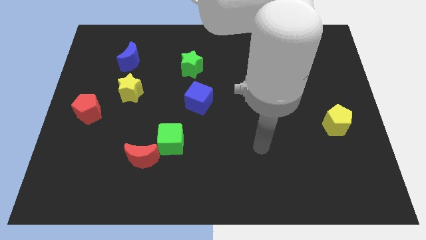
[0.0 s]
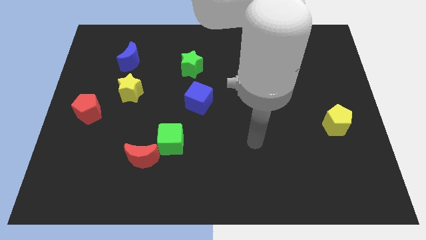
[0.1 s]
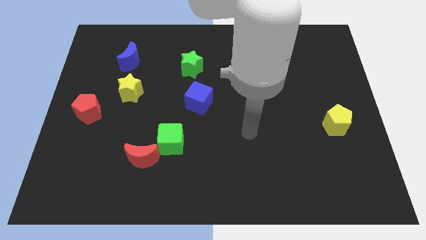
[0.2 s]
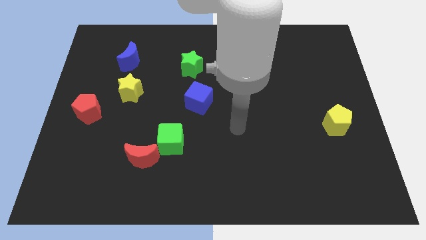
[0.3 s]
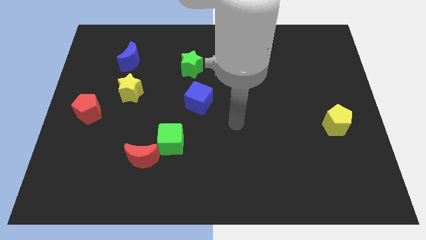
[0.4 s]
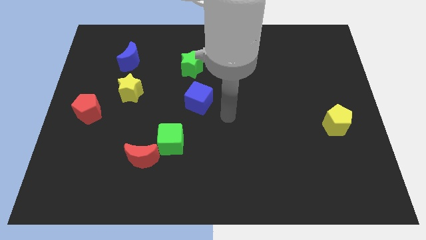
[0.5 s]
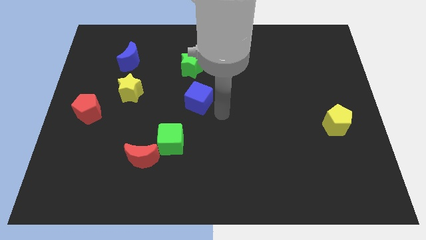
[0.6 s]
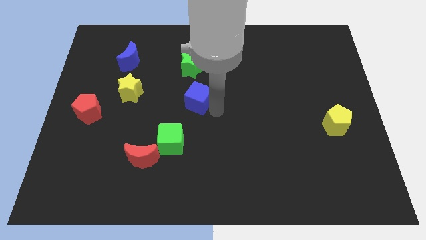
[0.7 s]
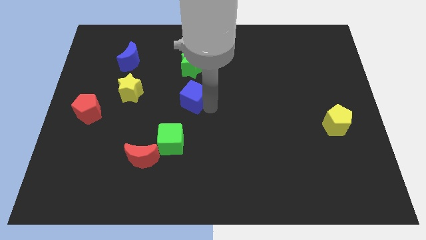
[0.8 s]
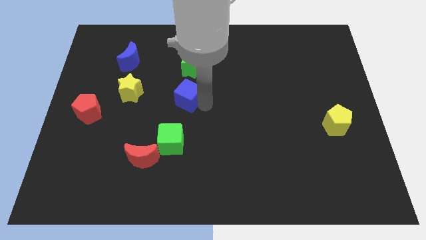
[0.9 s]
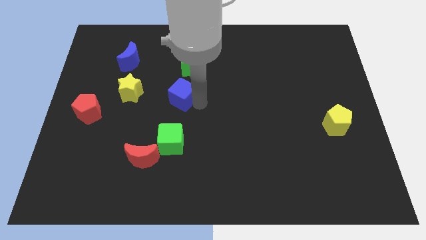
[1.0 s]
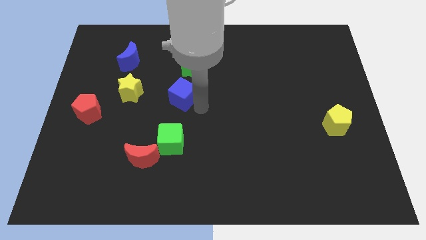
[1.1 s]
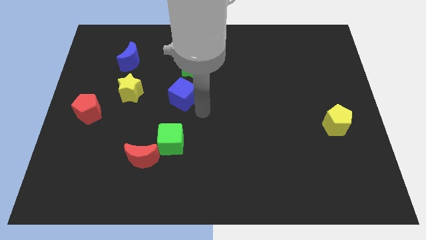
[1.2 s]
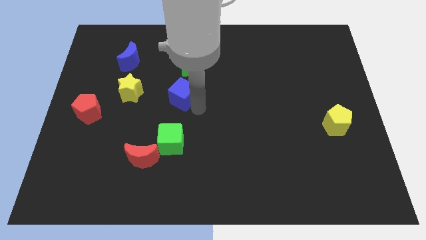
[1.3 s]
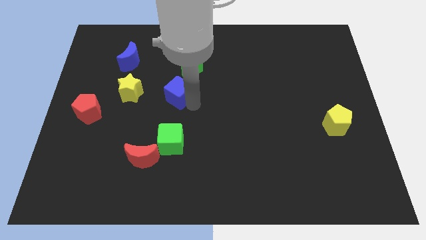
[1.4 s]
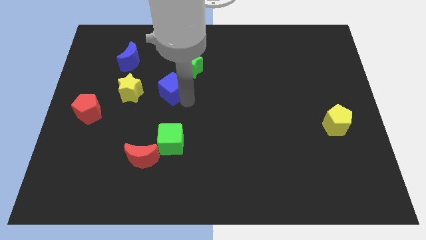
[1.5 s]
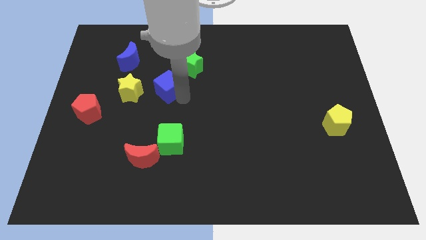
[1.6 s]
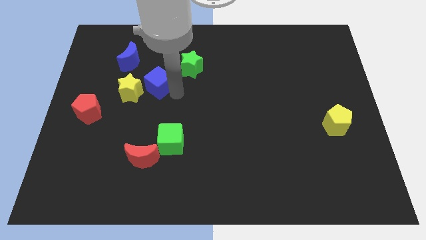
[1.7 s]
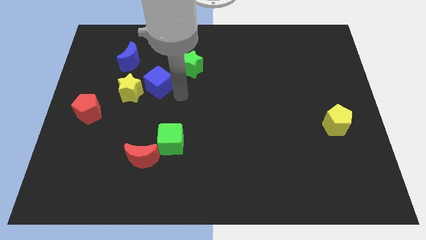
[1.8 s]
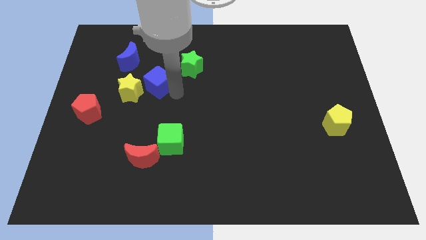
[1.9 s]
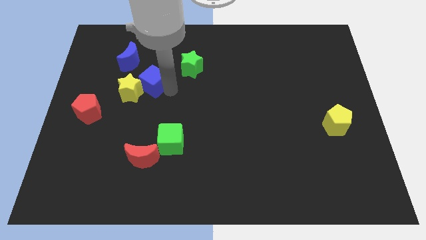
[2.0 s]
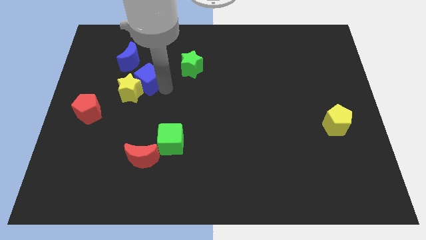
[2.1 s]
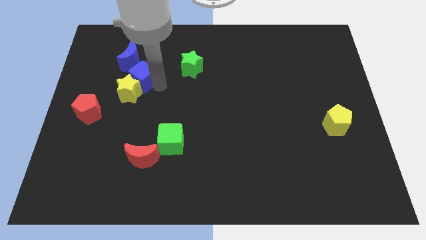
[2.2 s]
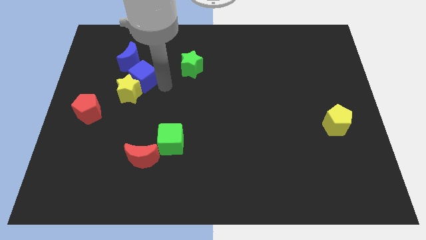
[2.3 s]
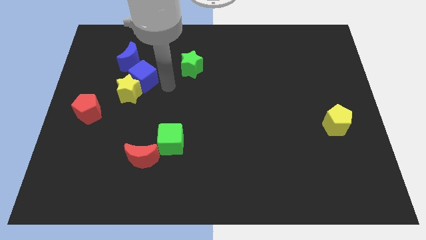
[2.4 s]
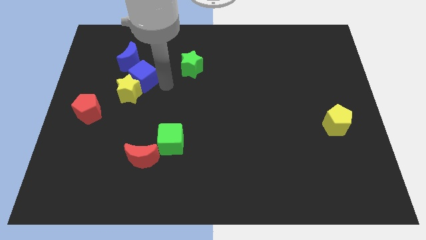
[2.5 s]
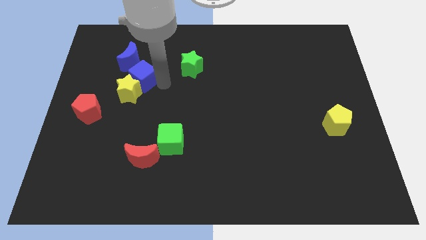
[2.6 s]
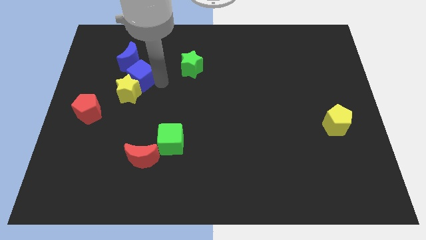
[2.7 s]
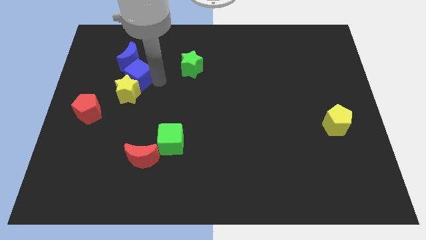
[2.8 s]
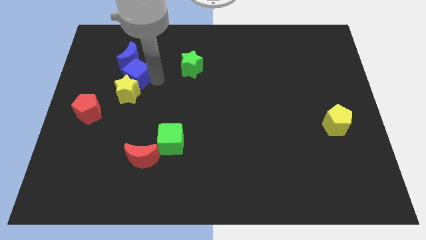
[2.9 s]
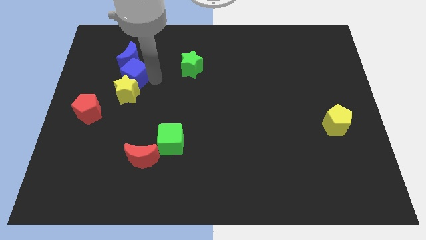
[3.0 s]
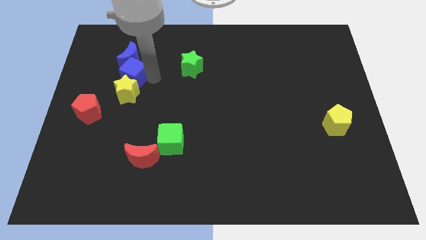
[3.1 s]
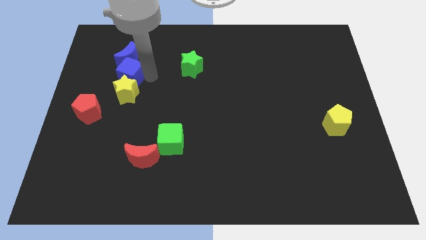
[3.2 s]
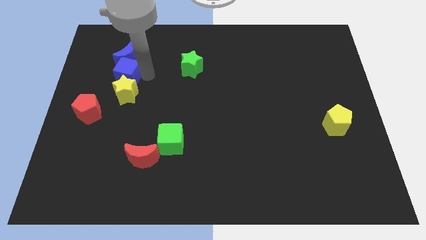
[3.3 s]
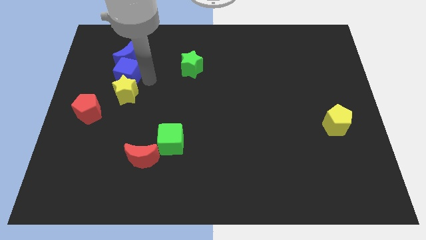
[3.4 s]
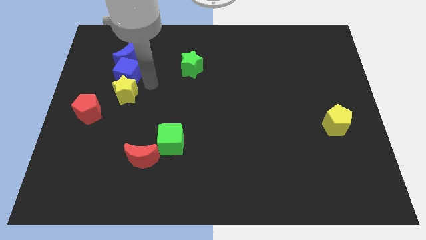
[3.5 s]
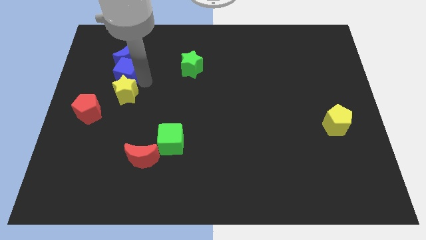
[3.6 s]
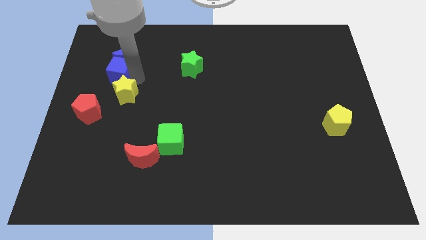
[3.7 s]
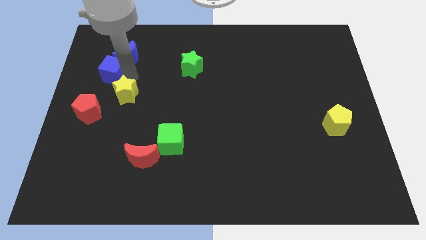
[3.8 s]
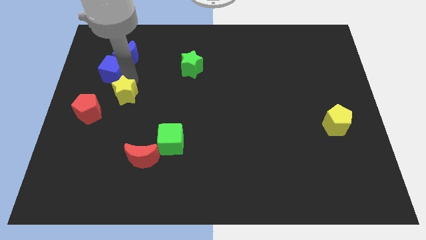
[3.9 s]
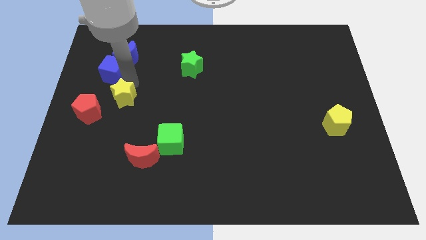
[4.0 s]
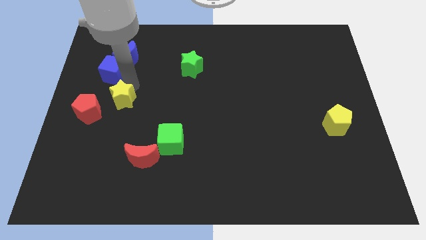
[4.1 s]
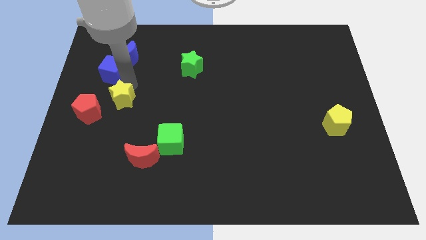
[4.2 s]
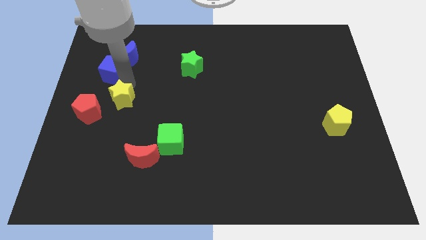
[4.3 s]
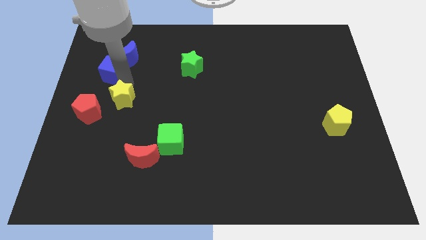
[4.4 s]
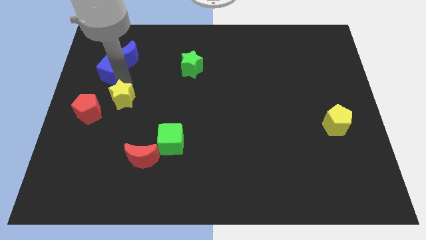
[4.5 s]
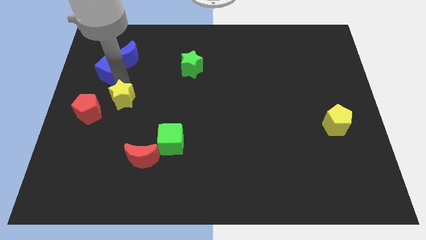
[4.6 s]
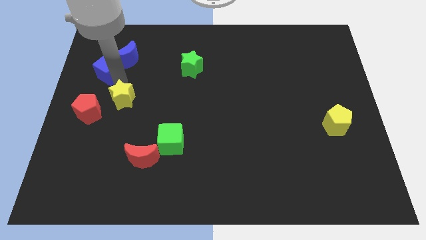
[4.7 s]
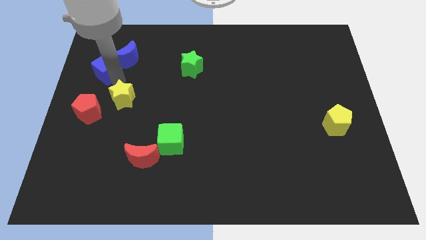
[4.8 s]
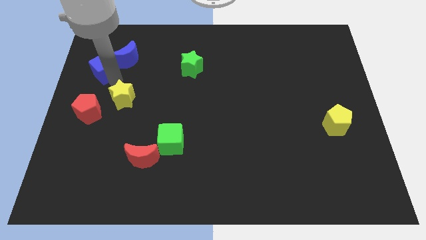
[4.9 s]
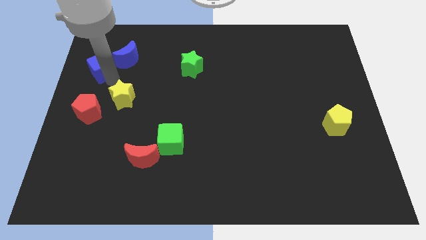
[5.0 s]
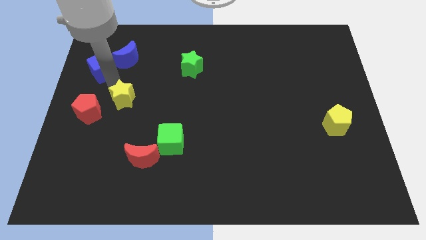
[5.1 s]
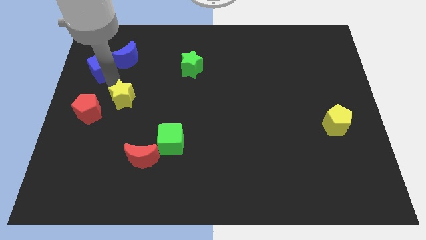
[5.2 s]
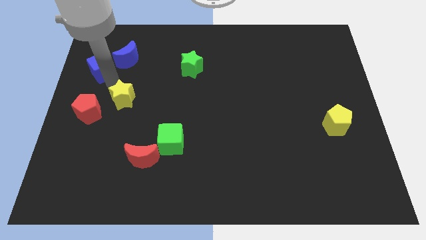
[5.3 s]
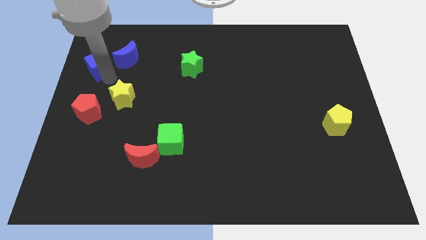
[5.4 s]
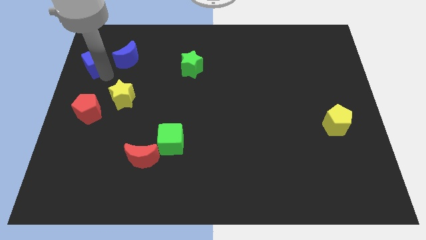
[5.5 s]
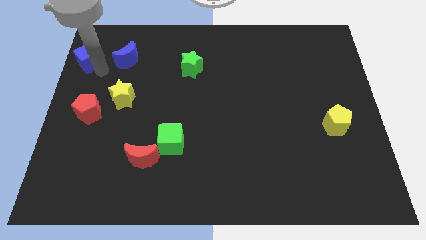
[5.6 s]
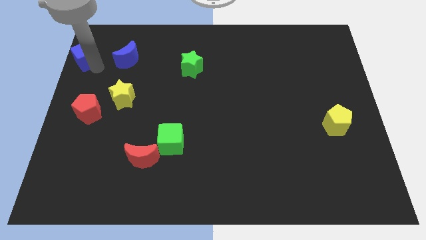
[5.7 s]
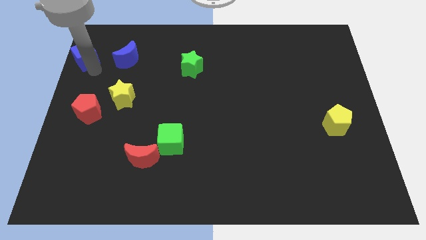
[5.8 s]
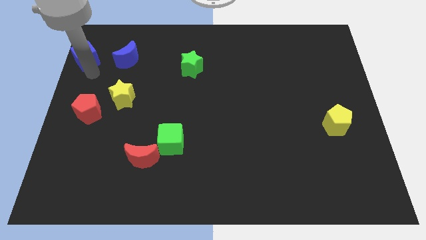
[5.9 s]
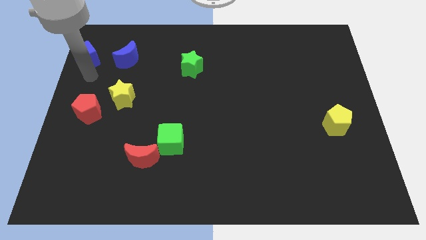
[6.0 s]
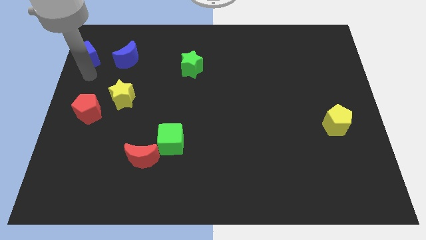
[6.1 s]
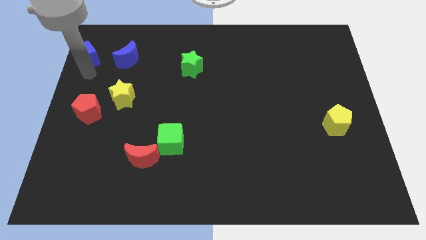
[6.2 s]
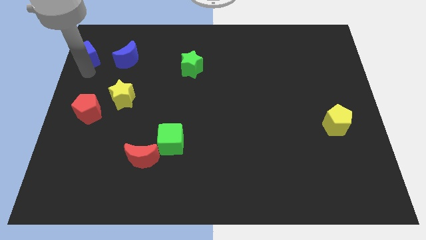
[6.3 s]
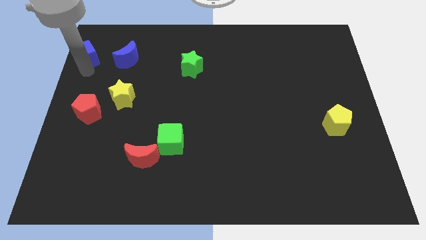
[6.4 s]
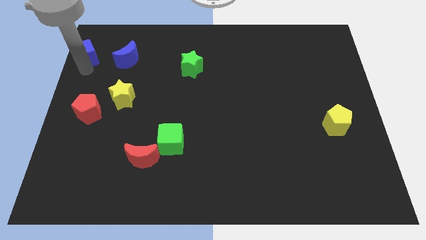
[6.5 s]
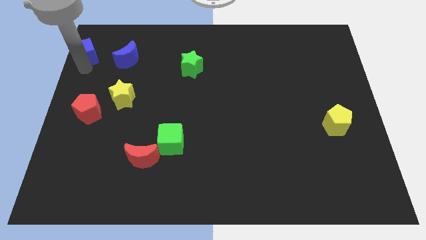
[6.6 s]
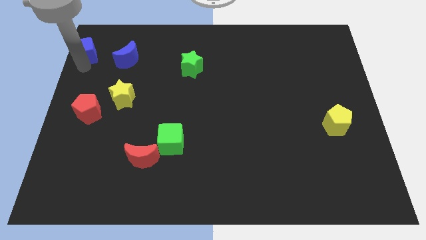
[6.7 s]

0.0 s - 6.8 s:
move the blue cube to the upper left corner

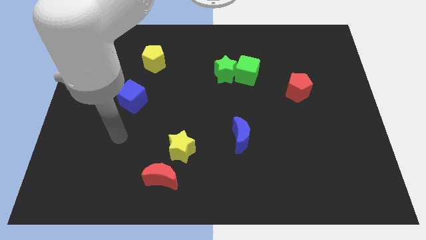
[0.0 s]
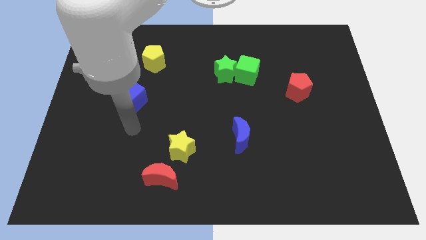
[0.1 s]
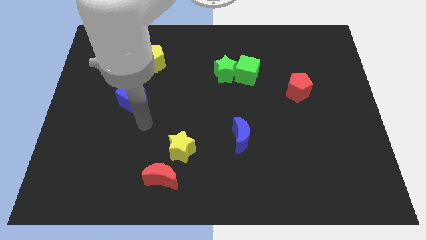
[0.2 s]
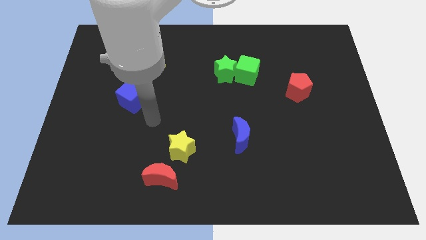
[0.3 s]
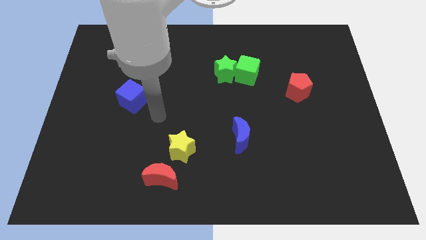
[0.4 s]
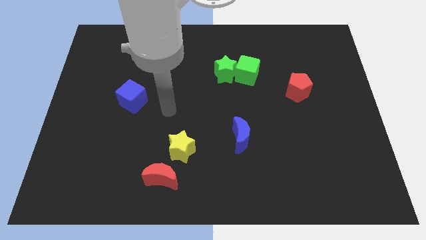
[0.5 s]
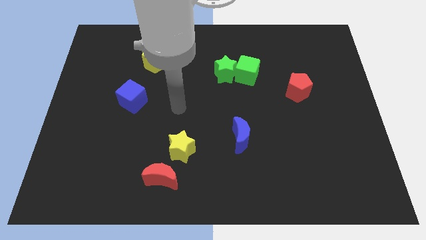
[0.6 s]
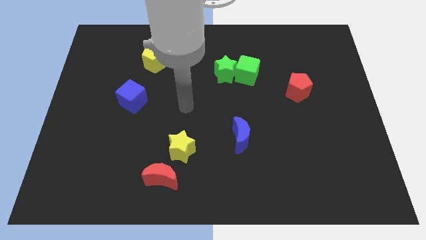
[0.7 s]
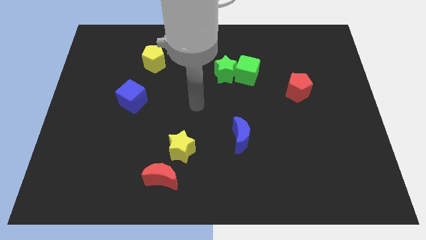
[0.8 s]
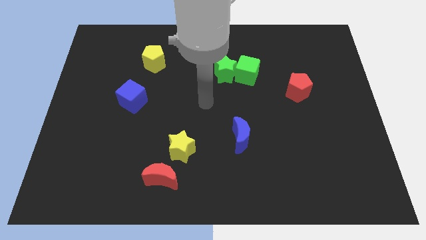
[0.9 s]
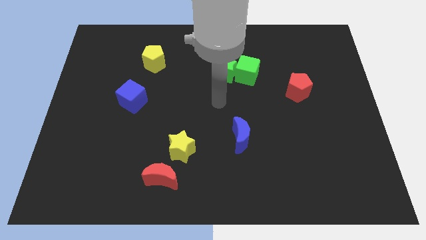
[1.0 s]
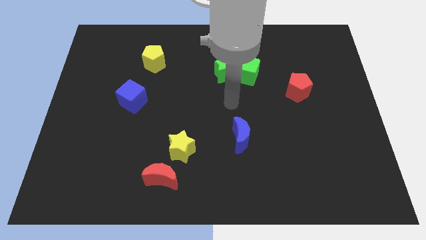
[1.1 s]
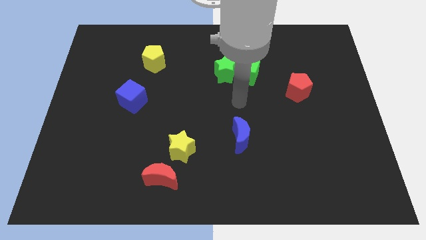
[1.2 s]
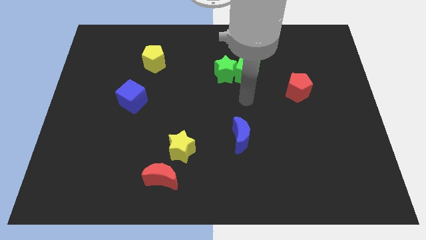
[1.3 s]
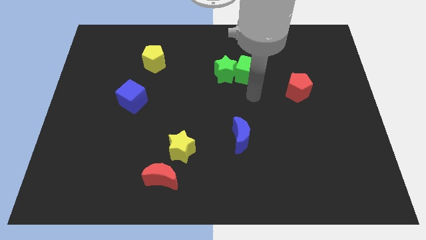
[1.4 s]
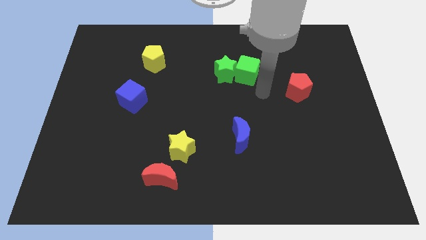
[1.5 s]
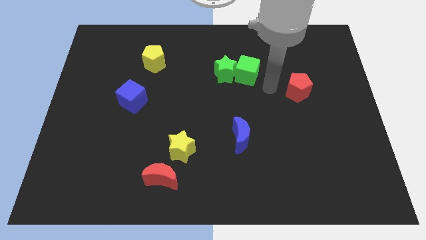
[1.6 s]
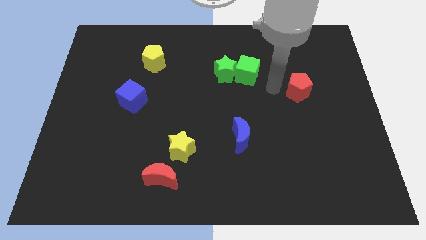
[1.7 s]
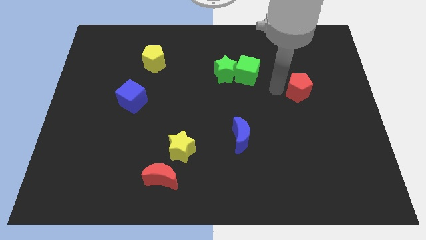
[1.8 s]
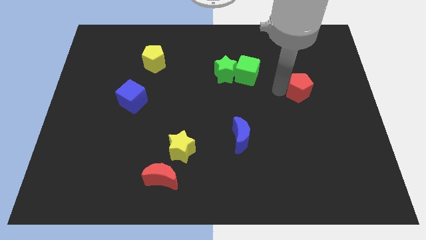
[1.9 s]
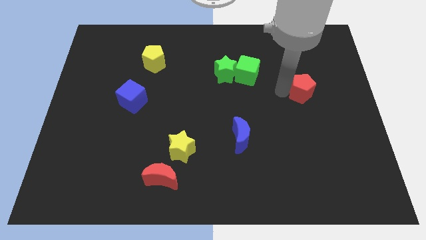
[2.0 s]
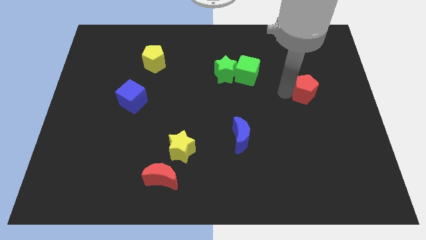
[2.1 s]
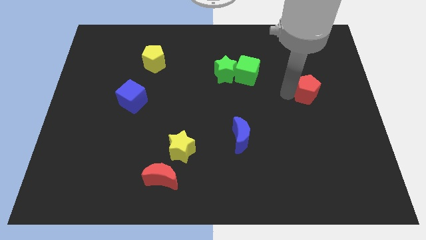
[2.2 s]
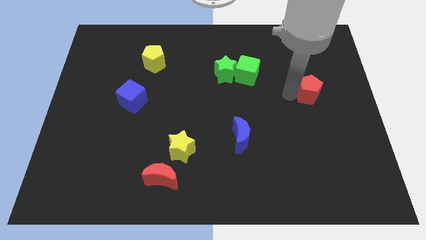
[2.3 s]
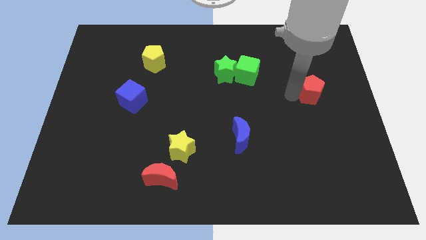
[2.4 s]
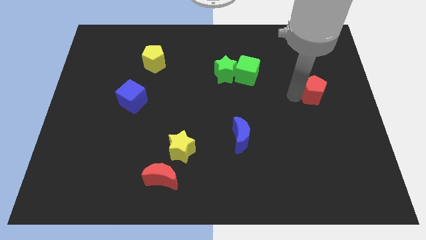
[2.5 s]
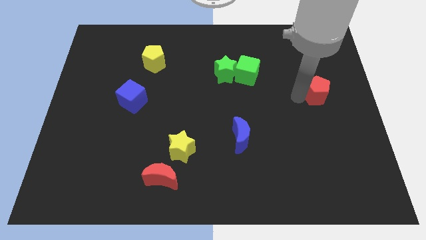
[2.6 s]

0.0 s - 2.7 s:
push the red pentagon to the right side
